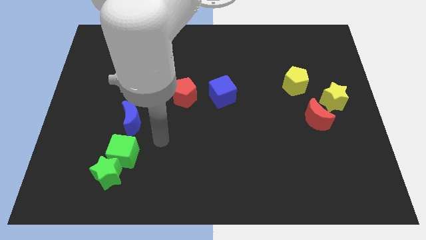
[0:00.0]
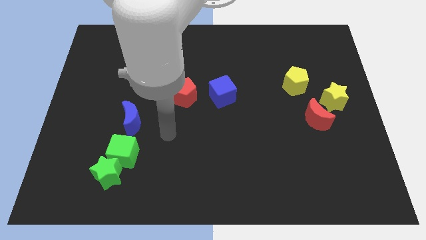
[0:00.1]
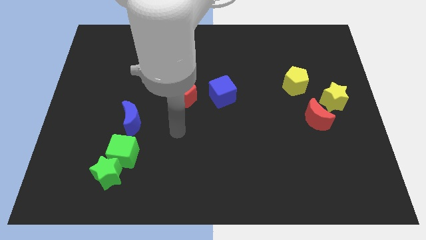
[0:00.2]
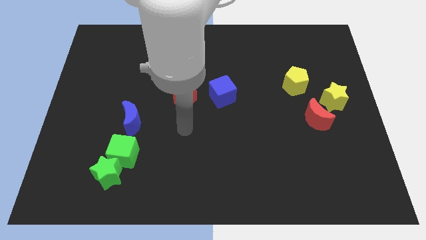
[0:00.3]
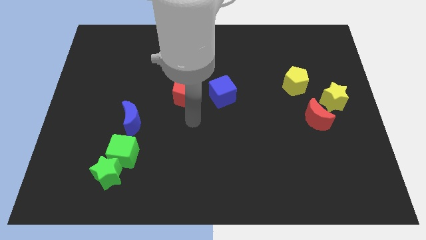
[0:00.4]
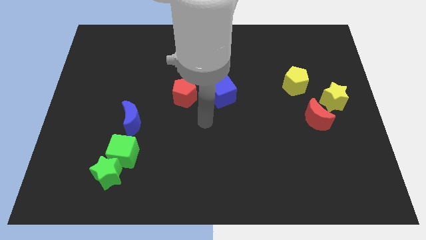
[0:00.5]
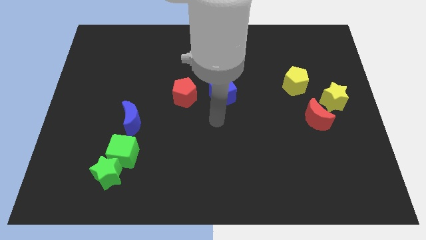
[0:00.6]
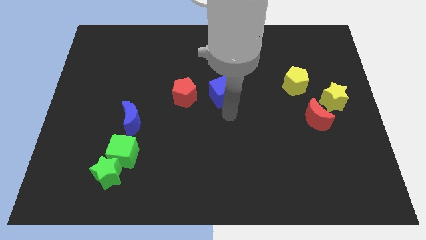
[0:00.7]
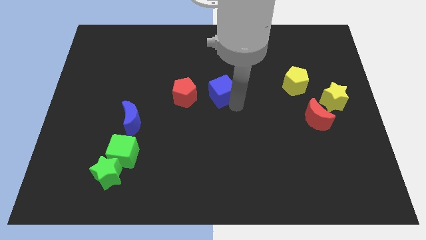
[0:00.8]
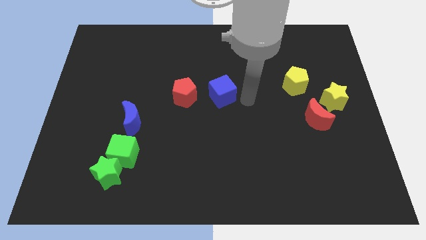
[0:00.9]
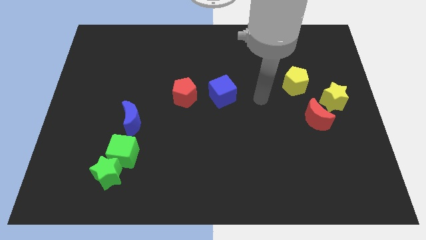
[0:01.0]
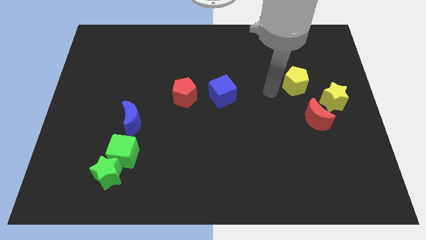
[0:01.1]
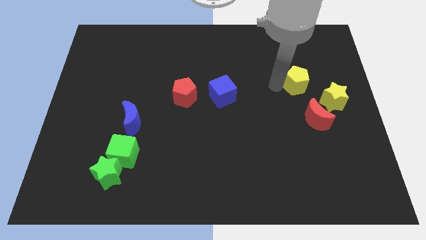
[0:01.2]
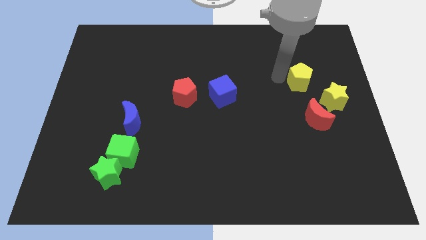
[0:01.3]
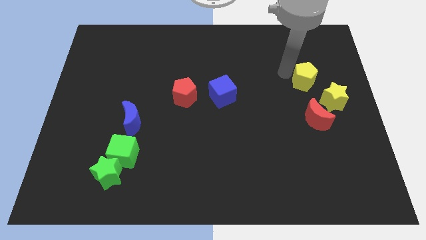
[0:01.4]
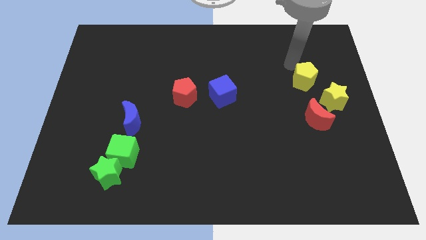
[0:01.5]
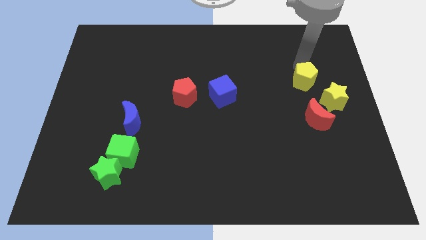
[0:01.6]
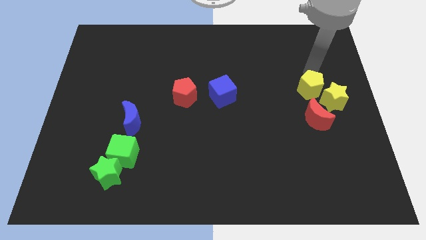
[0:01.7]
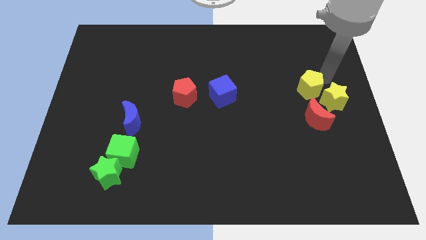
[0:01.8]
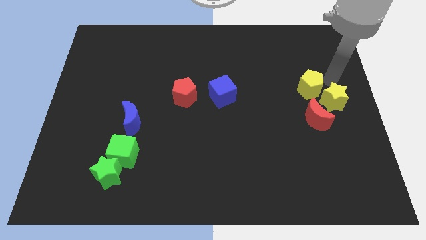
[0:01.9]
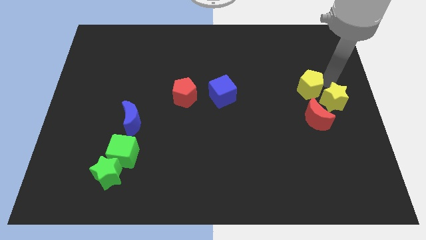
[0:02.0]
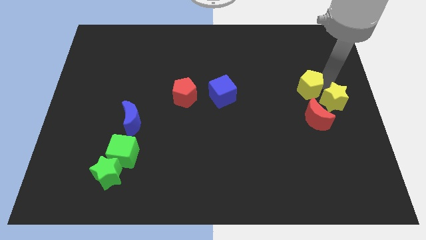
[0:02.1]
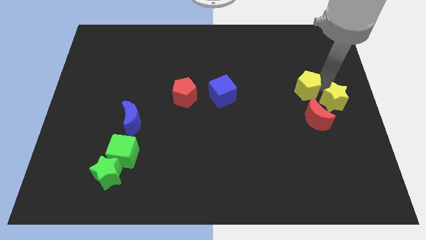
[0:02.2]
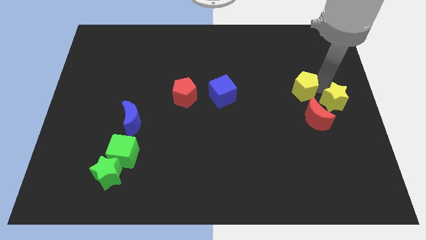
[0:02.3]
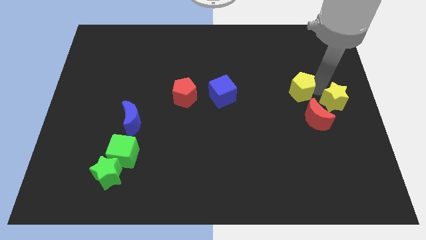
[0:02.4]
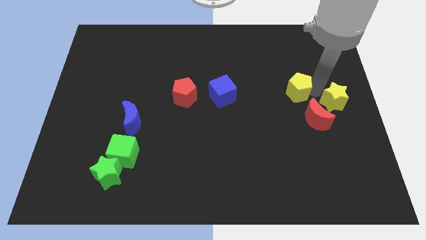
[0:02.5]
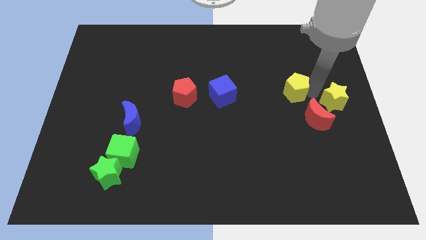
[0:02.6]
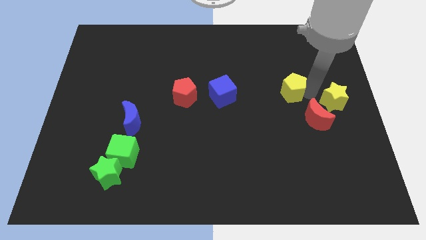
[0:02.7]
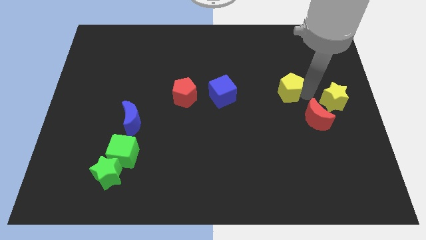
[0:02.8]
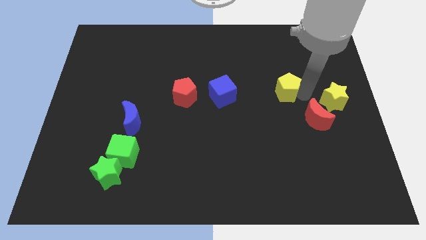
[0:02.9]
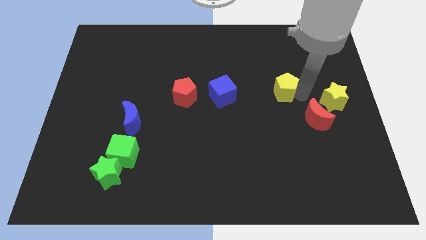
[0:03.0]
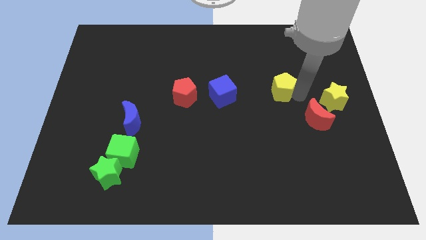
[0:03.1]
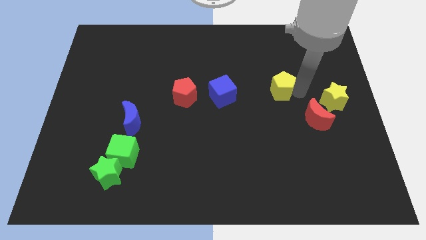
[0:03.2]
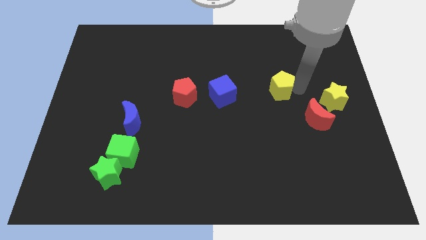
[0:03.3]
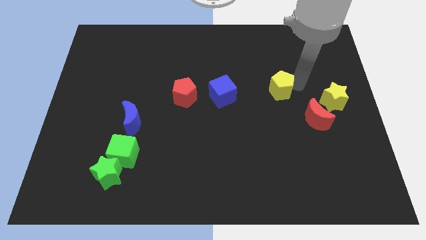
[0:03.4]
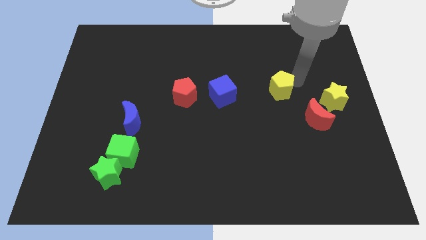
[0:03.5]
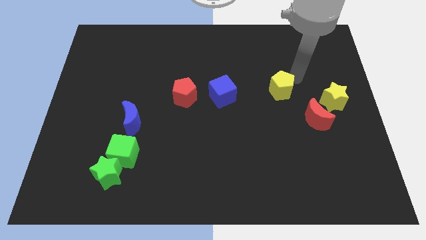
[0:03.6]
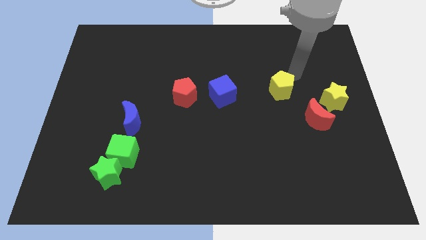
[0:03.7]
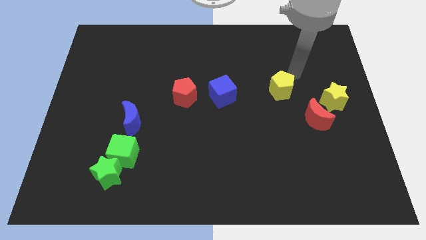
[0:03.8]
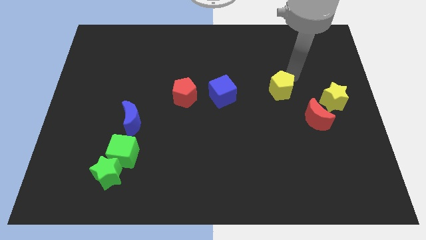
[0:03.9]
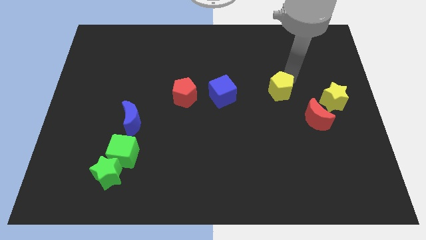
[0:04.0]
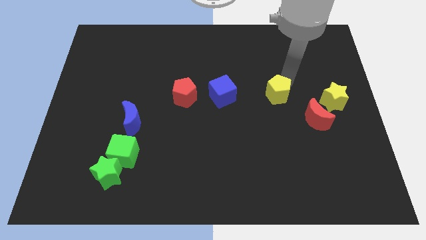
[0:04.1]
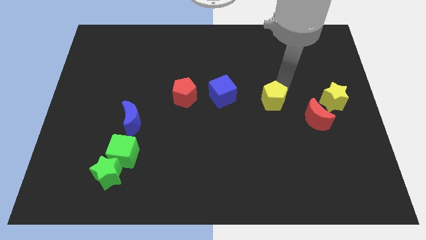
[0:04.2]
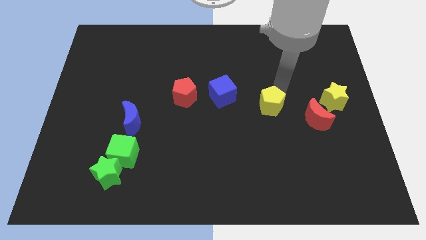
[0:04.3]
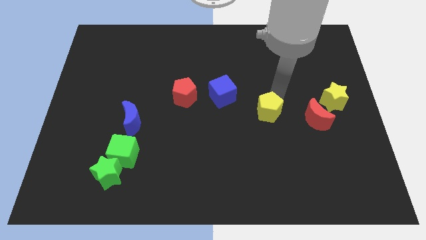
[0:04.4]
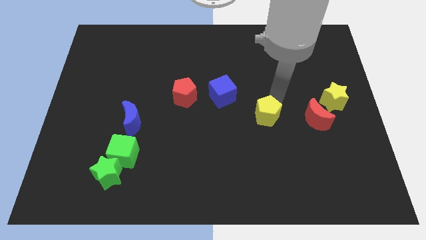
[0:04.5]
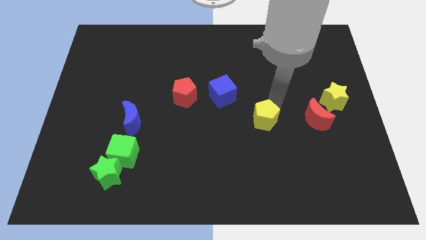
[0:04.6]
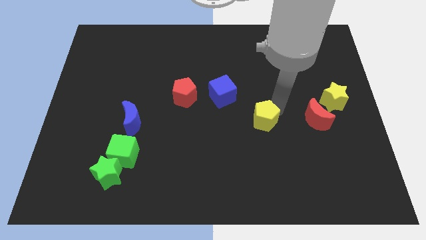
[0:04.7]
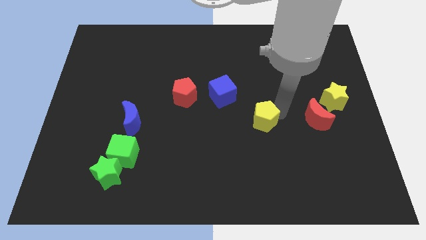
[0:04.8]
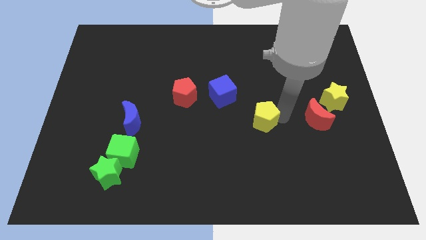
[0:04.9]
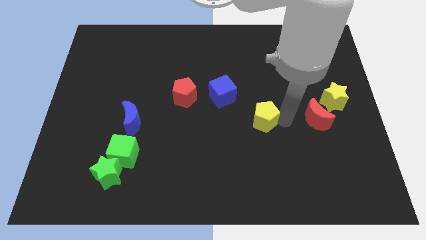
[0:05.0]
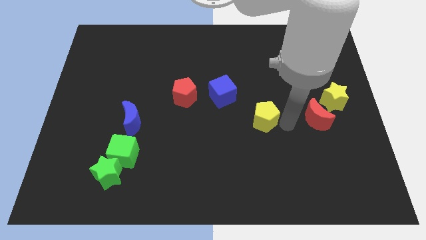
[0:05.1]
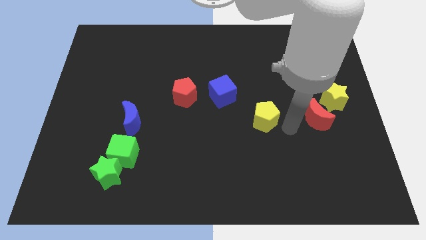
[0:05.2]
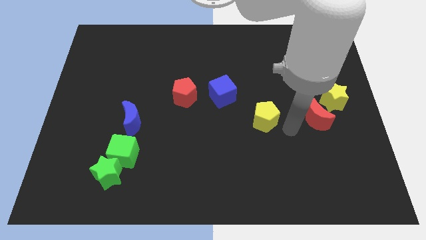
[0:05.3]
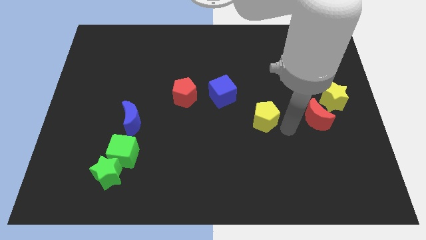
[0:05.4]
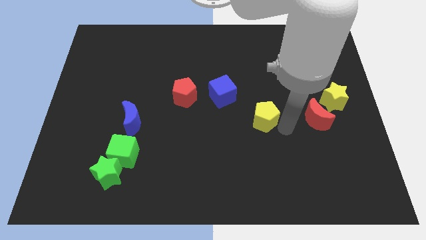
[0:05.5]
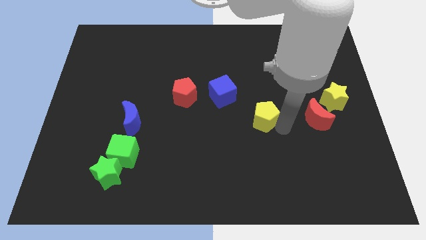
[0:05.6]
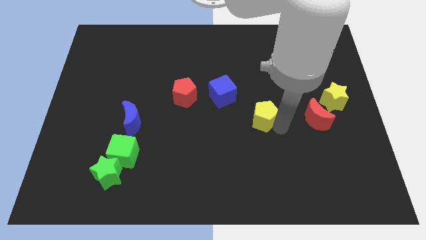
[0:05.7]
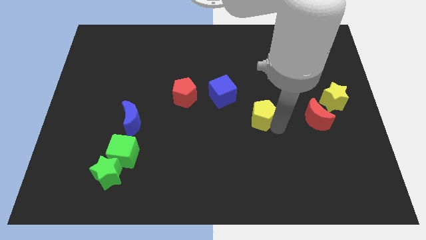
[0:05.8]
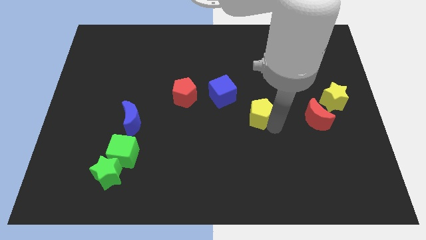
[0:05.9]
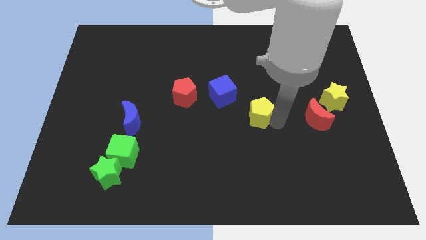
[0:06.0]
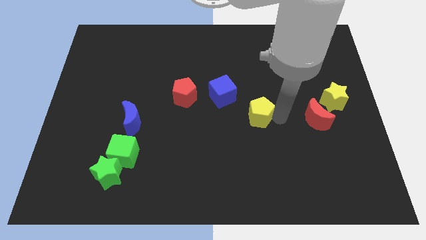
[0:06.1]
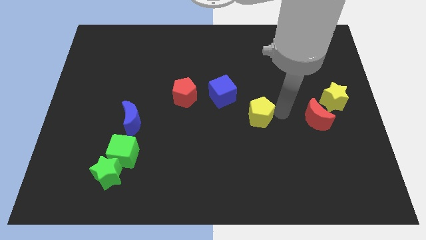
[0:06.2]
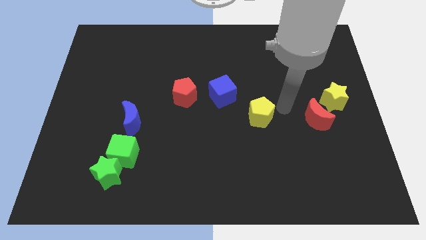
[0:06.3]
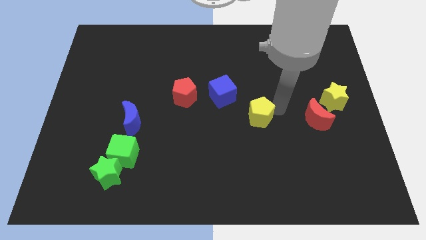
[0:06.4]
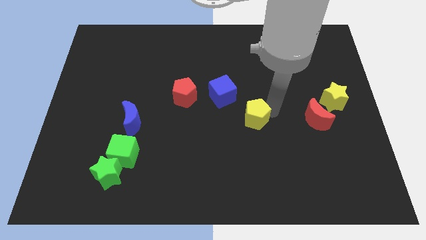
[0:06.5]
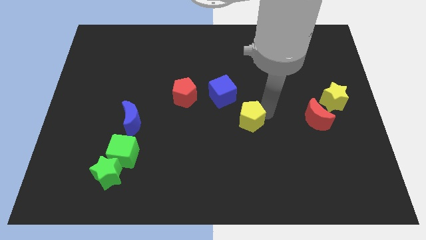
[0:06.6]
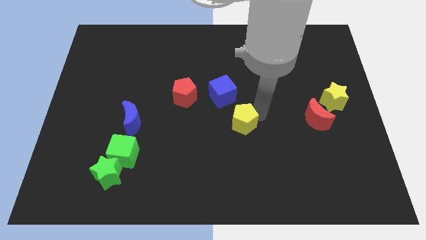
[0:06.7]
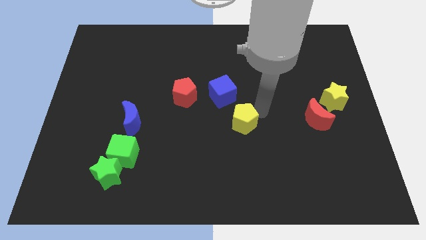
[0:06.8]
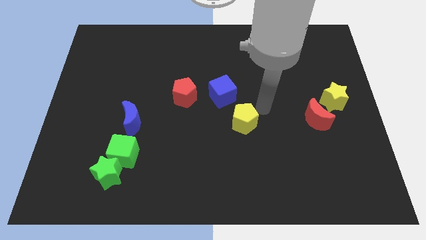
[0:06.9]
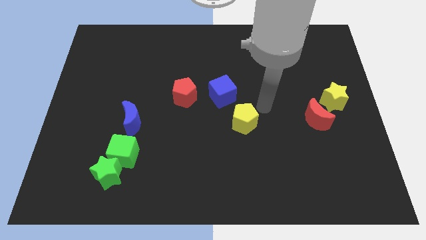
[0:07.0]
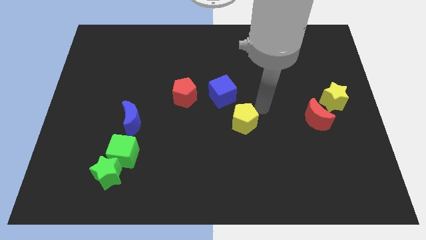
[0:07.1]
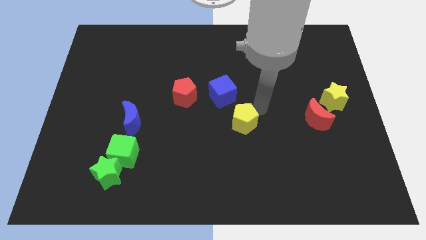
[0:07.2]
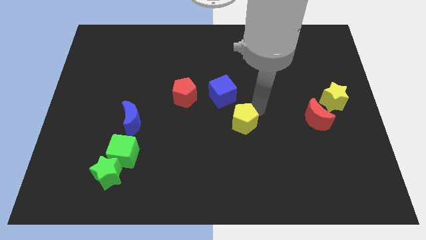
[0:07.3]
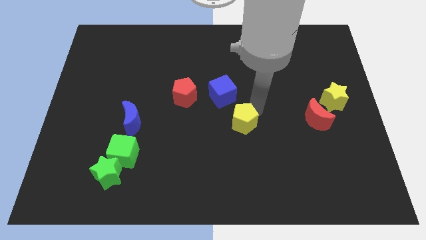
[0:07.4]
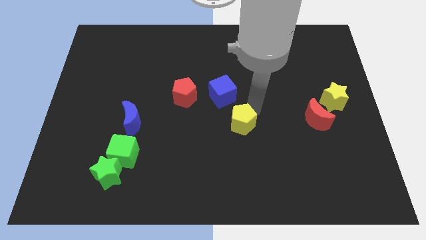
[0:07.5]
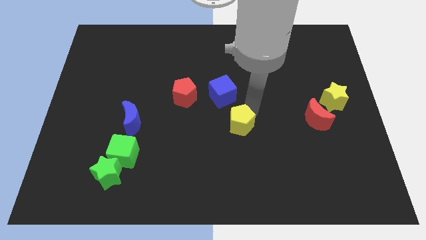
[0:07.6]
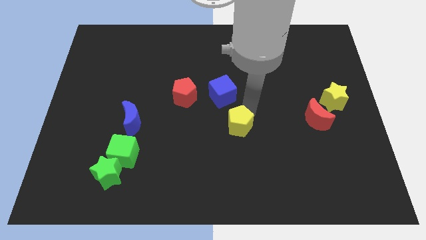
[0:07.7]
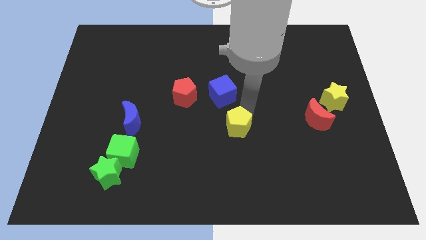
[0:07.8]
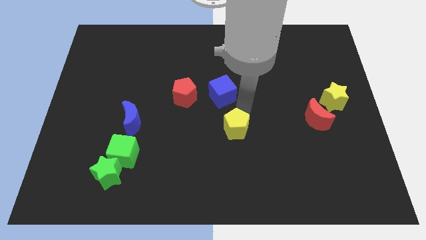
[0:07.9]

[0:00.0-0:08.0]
move the yellow pentagon down and then left
